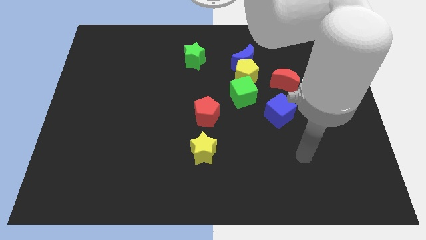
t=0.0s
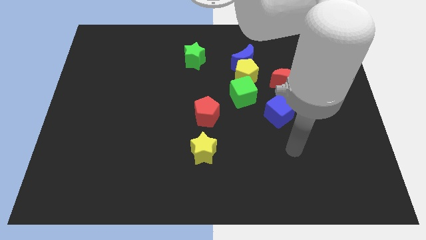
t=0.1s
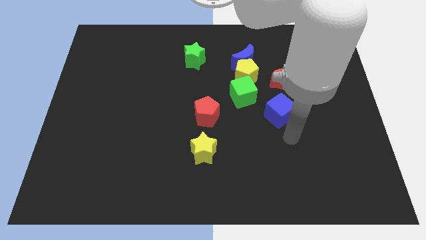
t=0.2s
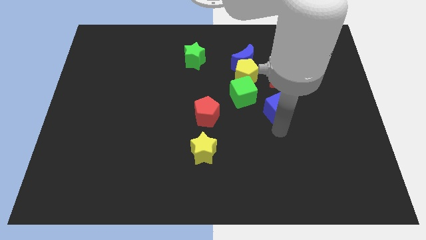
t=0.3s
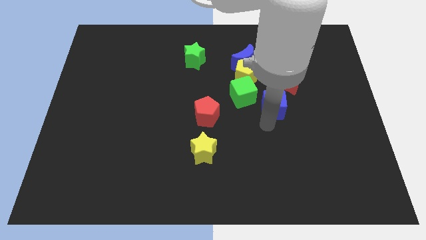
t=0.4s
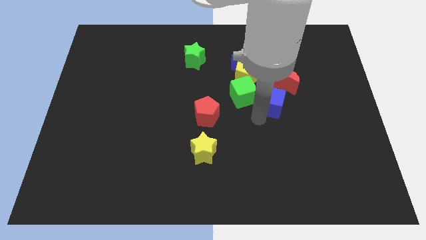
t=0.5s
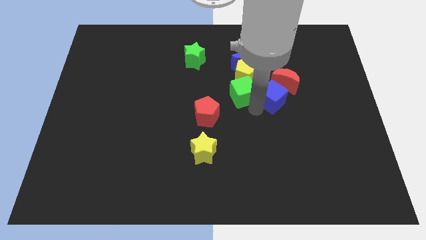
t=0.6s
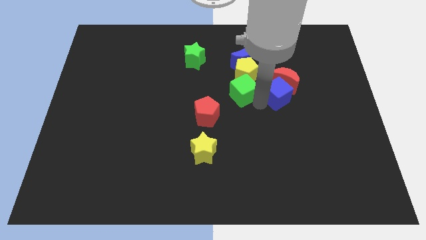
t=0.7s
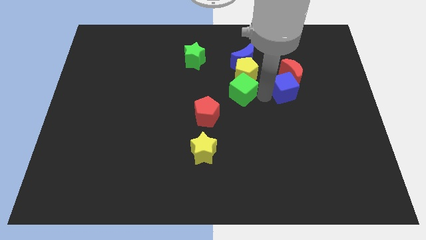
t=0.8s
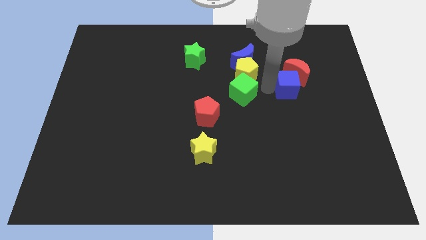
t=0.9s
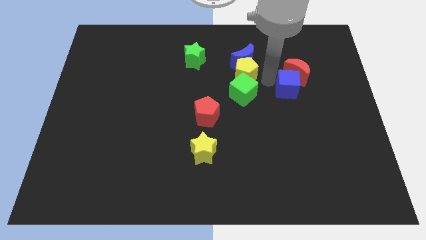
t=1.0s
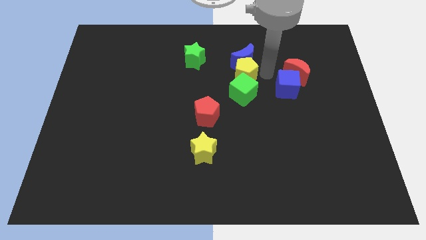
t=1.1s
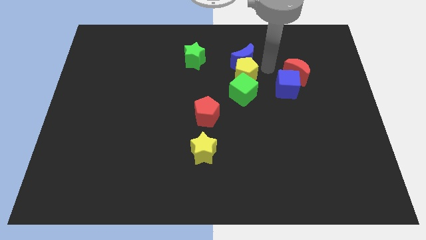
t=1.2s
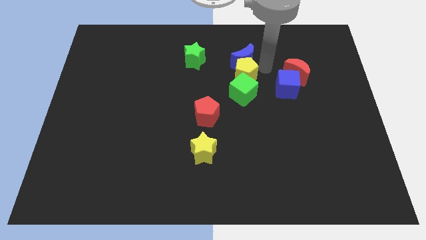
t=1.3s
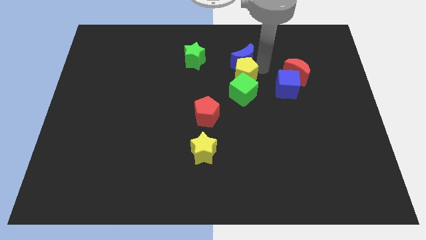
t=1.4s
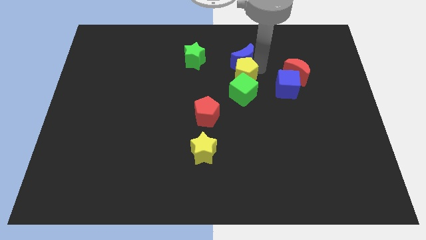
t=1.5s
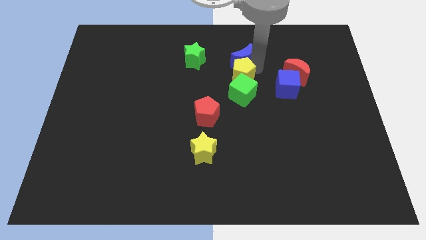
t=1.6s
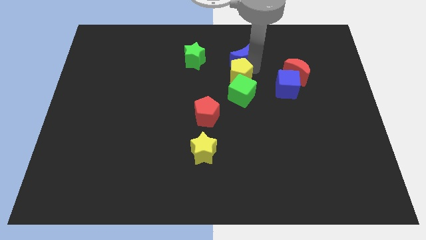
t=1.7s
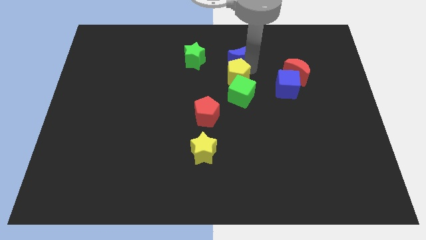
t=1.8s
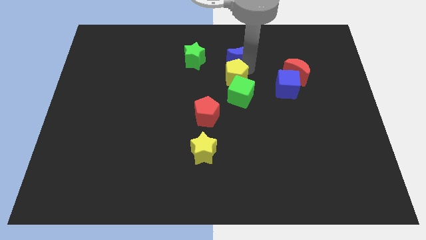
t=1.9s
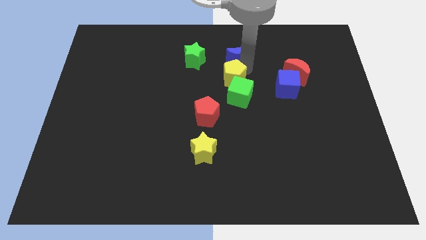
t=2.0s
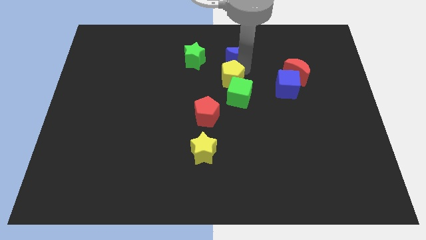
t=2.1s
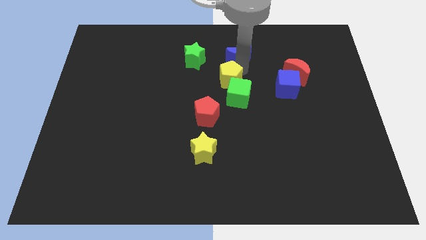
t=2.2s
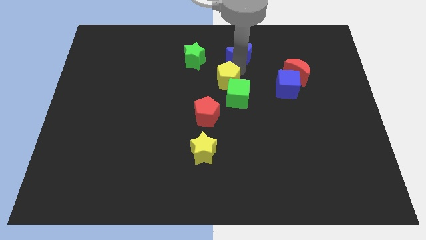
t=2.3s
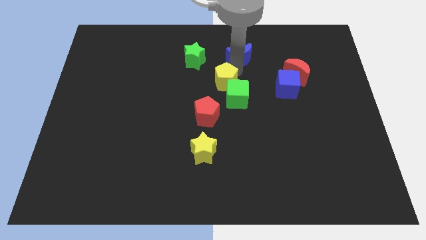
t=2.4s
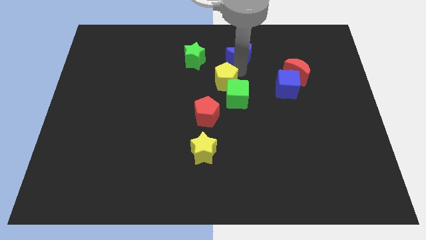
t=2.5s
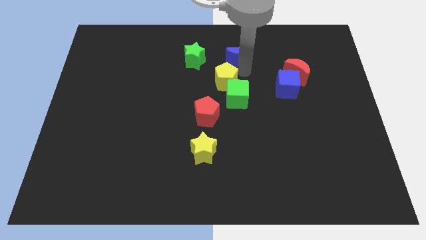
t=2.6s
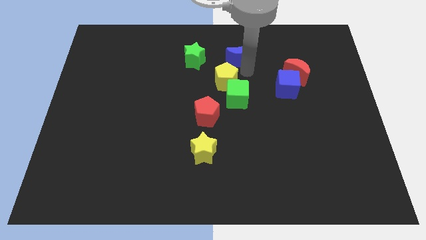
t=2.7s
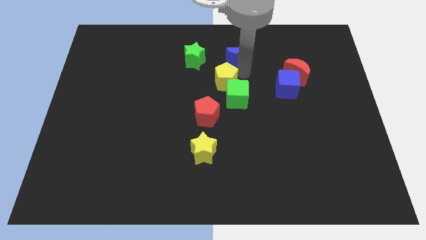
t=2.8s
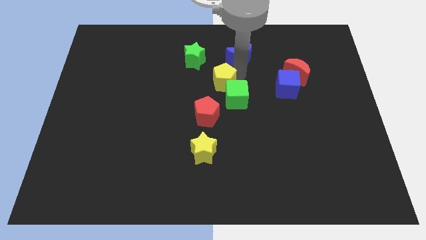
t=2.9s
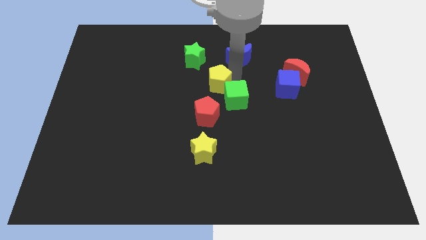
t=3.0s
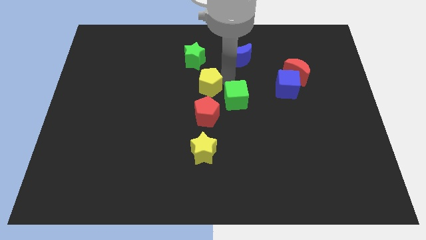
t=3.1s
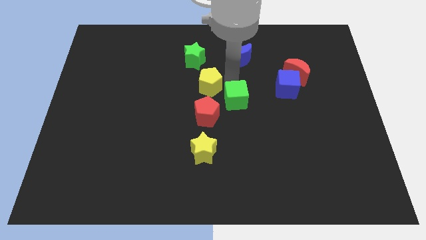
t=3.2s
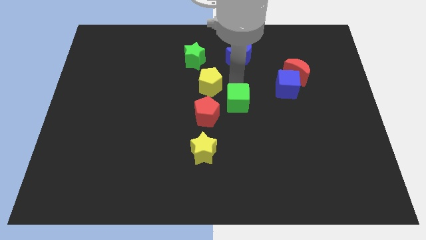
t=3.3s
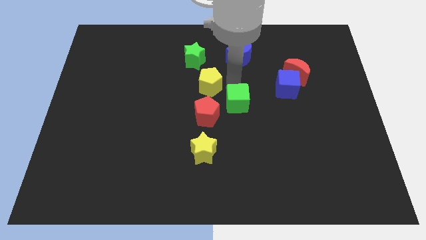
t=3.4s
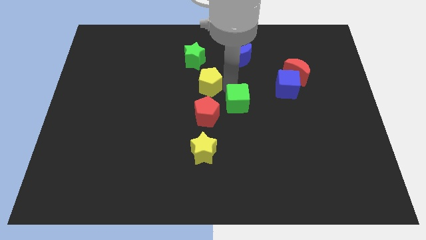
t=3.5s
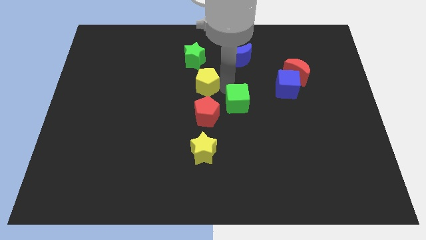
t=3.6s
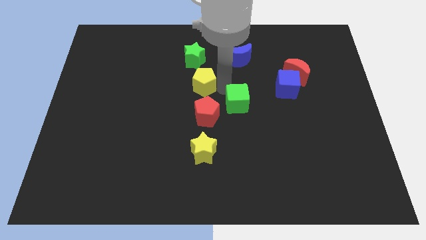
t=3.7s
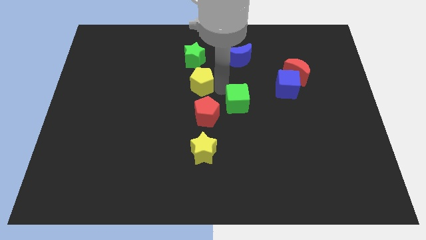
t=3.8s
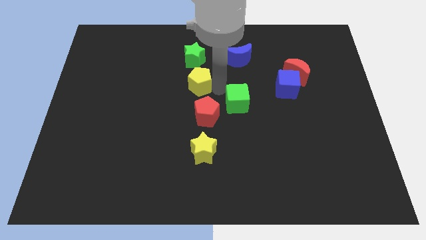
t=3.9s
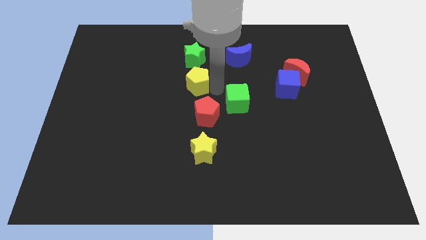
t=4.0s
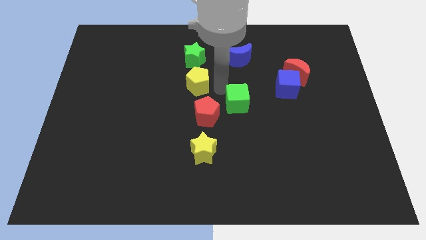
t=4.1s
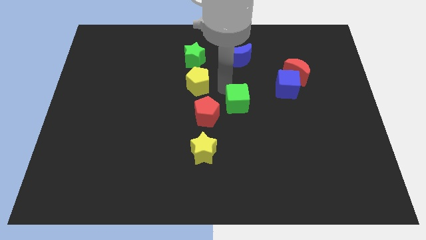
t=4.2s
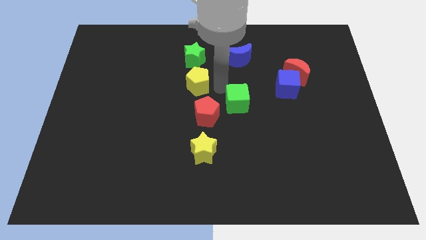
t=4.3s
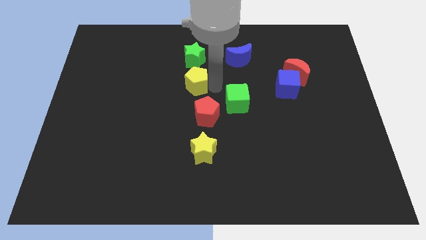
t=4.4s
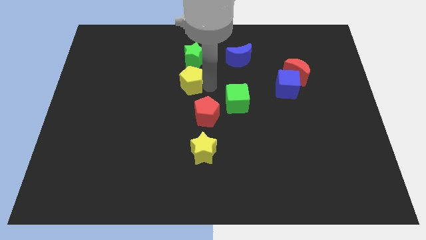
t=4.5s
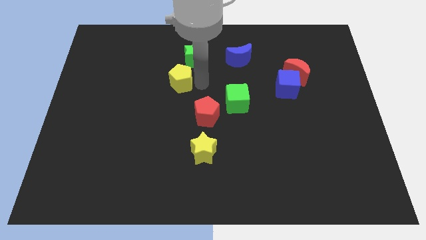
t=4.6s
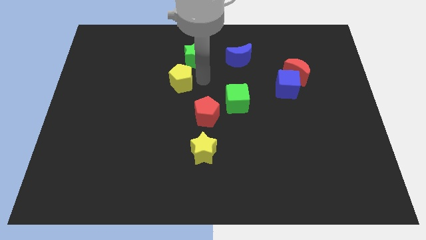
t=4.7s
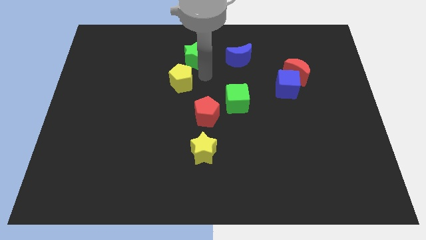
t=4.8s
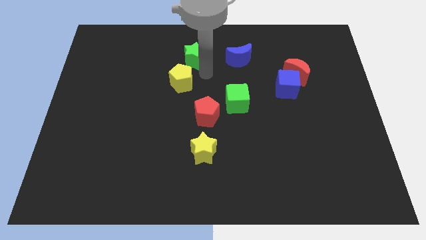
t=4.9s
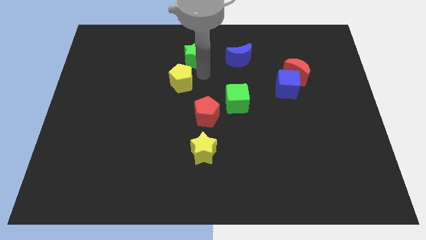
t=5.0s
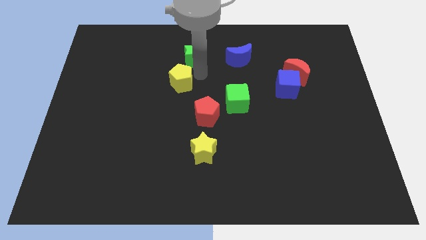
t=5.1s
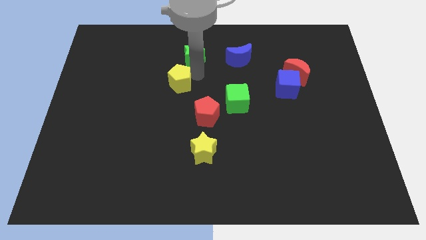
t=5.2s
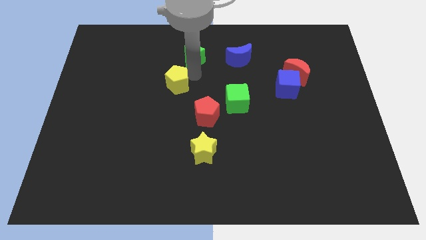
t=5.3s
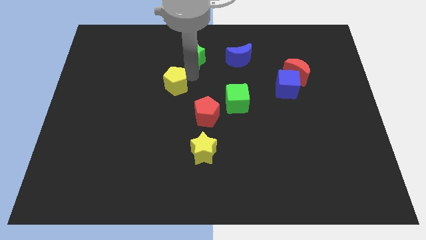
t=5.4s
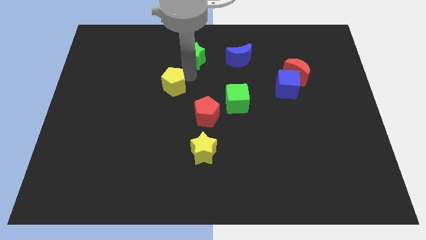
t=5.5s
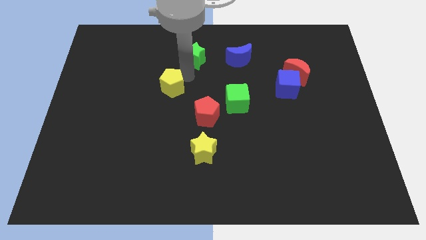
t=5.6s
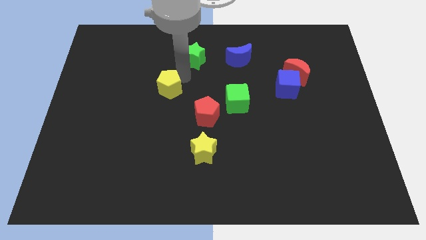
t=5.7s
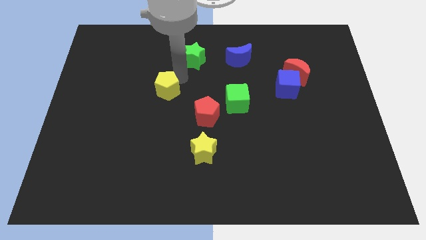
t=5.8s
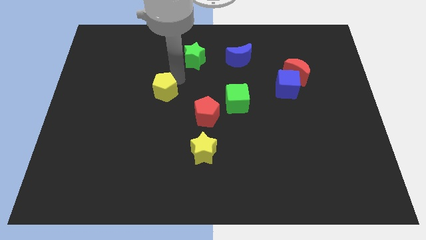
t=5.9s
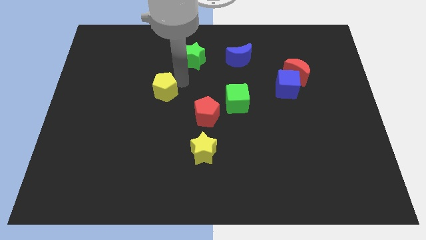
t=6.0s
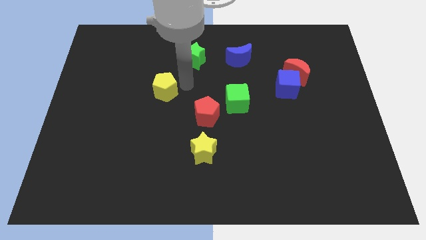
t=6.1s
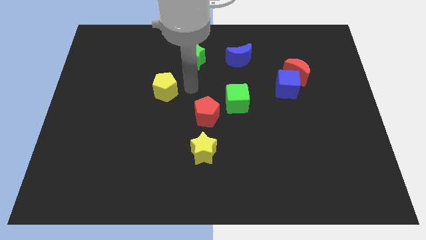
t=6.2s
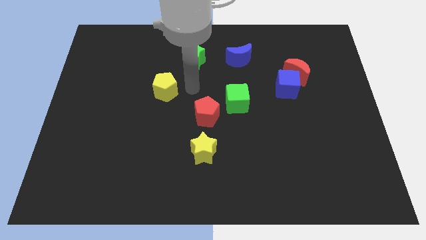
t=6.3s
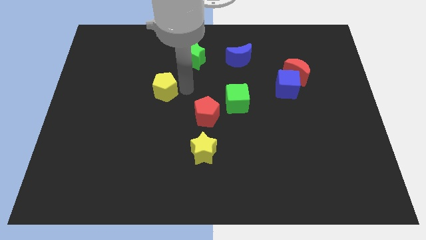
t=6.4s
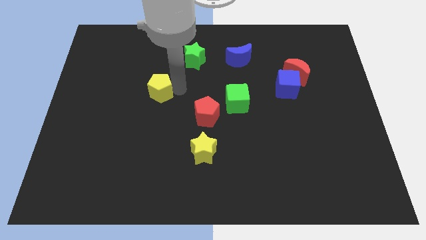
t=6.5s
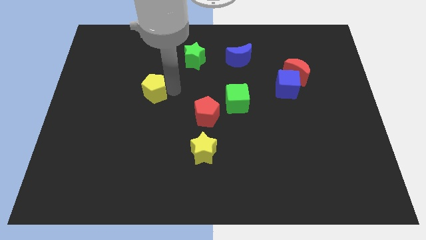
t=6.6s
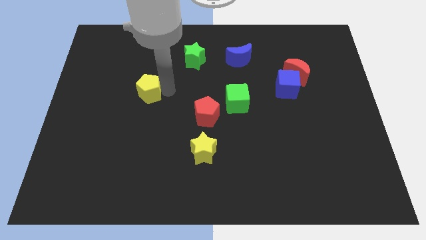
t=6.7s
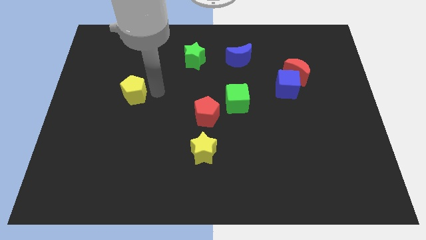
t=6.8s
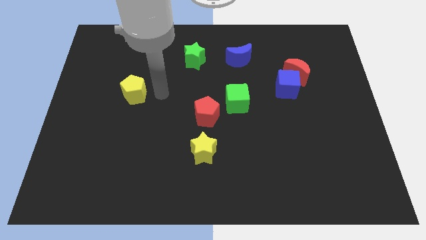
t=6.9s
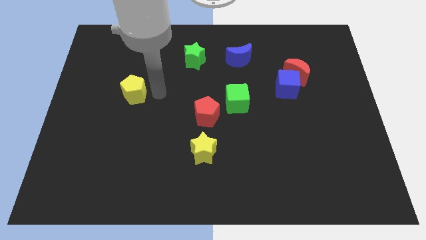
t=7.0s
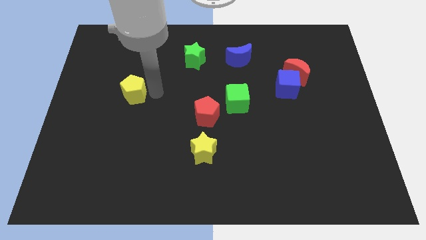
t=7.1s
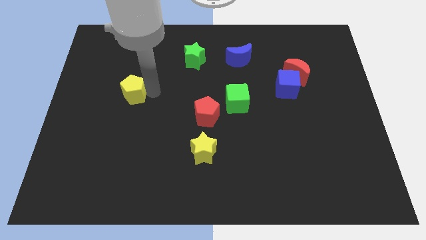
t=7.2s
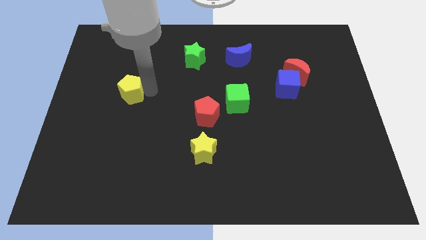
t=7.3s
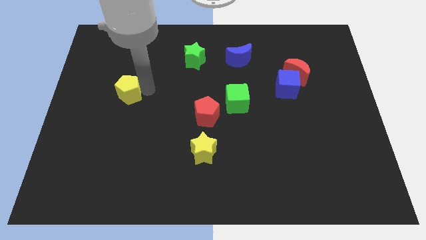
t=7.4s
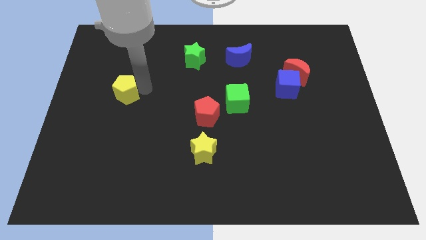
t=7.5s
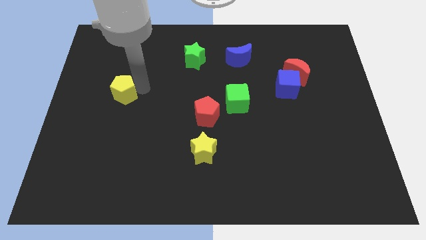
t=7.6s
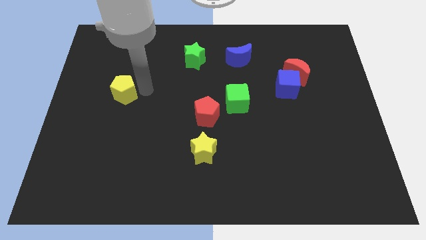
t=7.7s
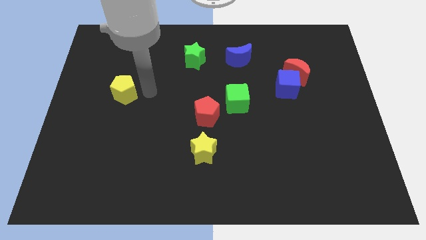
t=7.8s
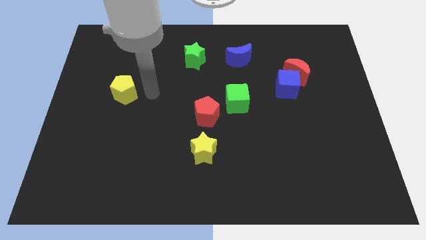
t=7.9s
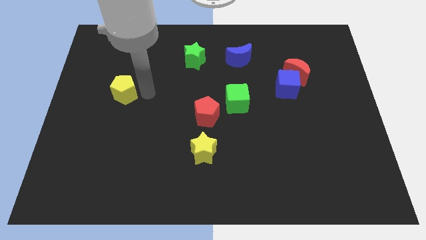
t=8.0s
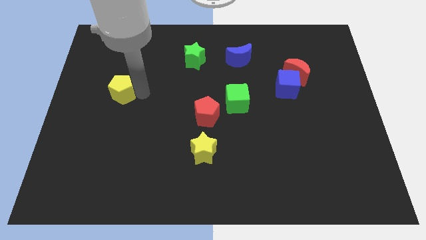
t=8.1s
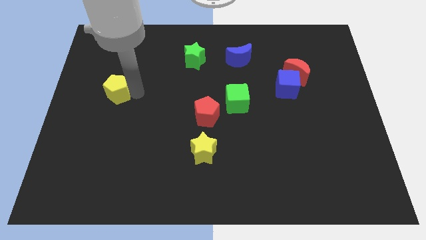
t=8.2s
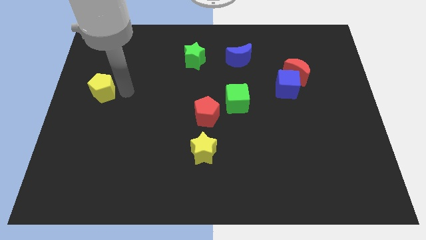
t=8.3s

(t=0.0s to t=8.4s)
move the yellow pentagon to the left side of the board
